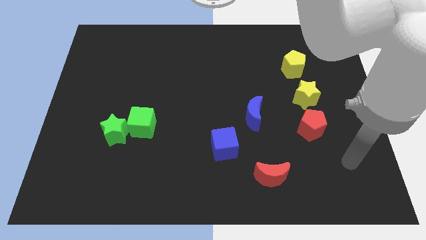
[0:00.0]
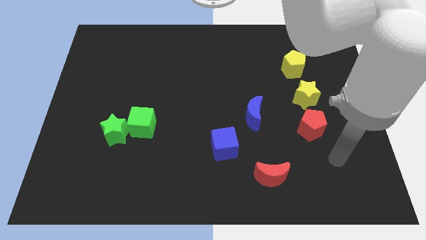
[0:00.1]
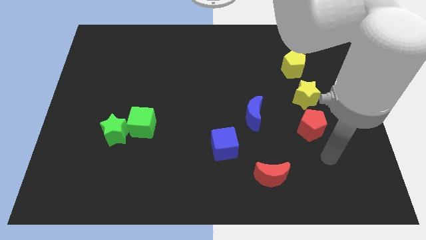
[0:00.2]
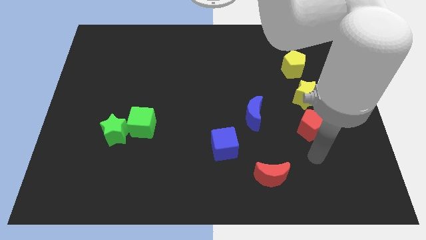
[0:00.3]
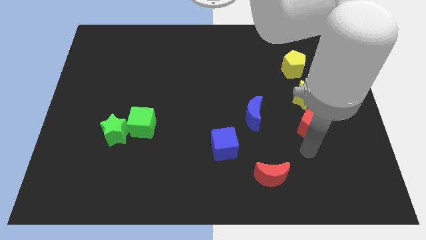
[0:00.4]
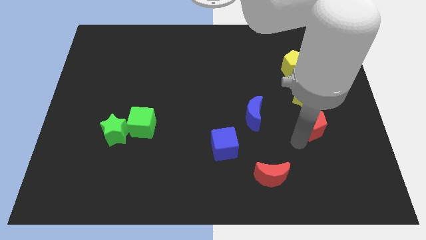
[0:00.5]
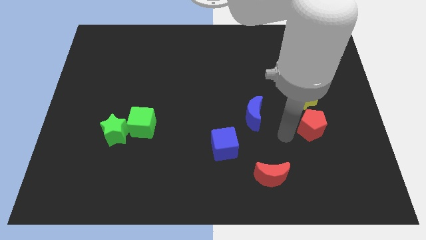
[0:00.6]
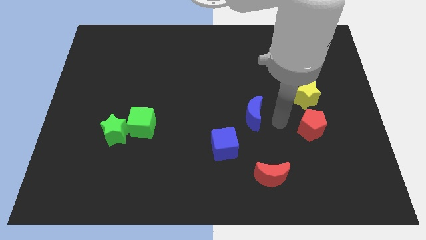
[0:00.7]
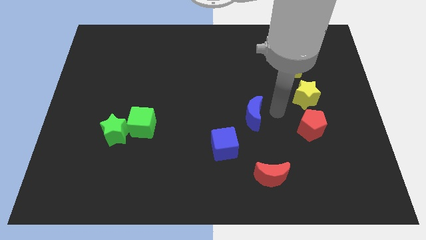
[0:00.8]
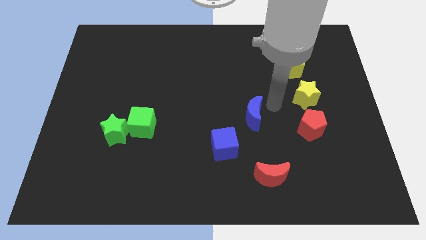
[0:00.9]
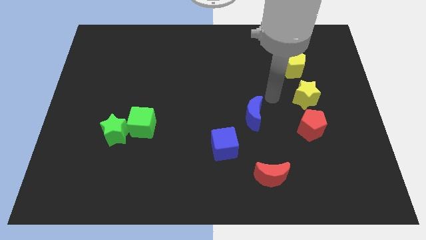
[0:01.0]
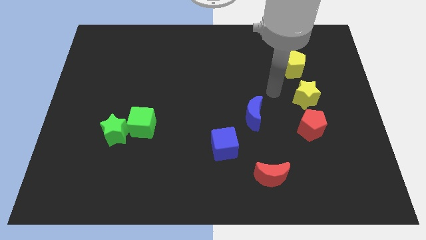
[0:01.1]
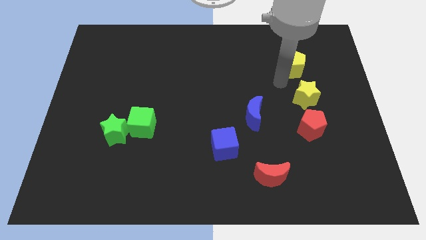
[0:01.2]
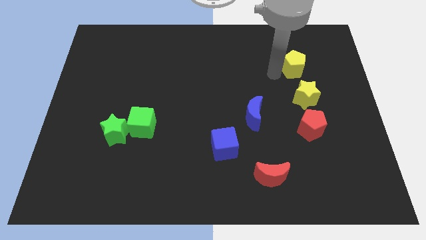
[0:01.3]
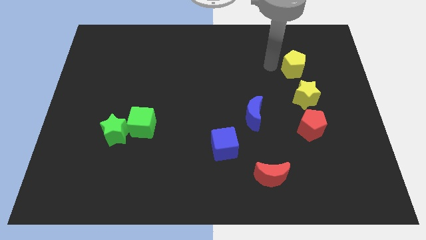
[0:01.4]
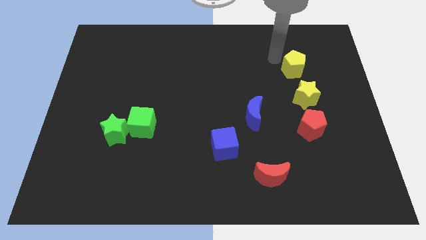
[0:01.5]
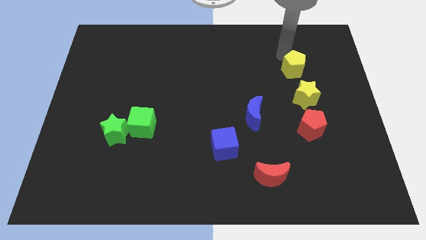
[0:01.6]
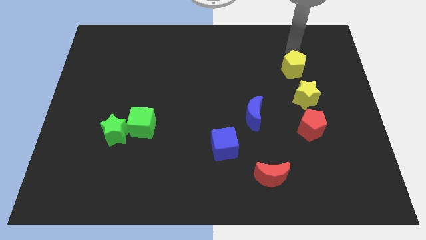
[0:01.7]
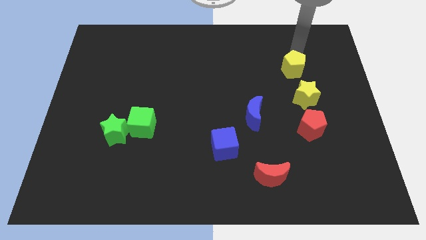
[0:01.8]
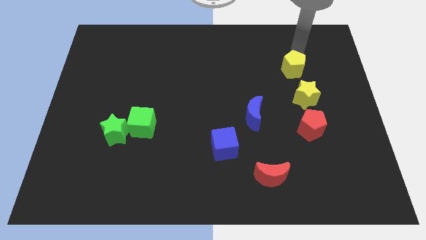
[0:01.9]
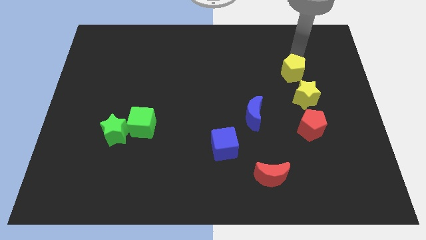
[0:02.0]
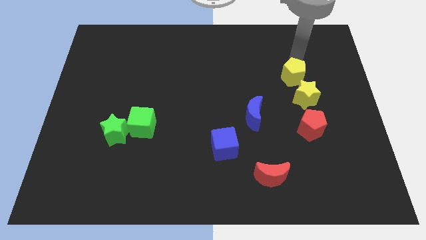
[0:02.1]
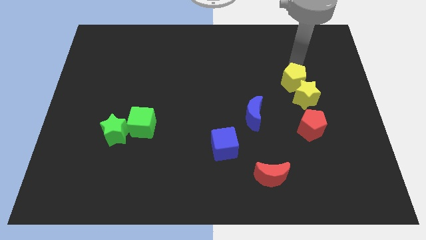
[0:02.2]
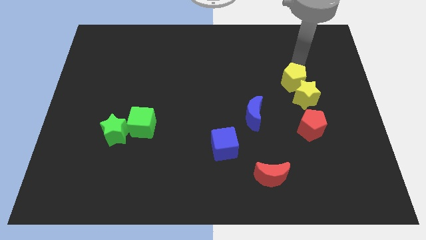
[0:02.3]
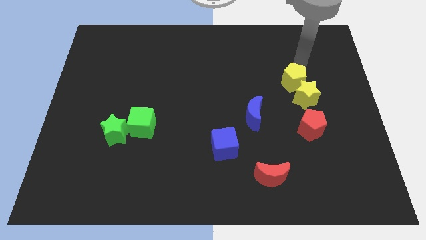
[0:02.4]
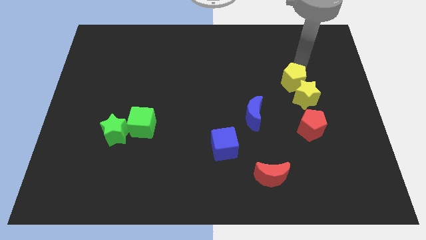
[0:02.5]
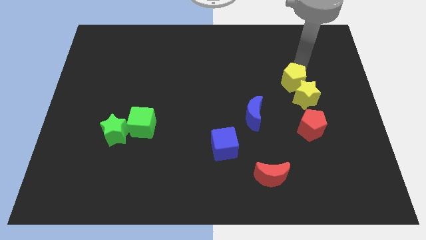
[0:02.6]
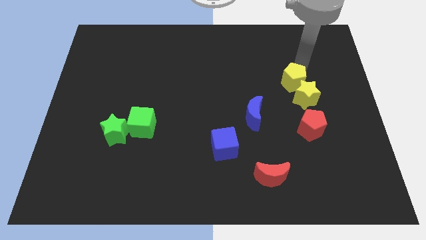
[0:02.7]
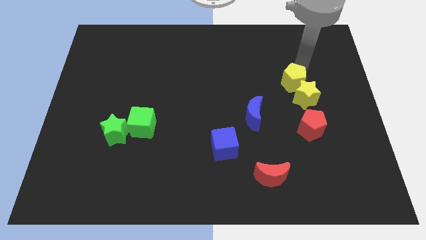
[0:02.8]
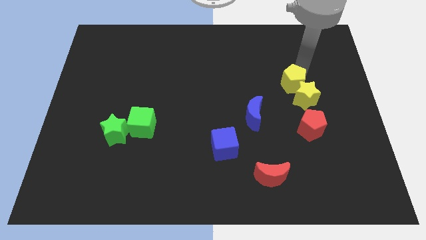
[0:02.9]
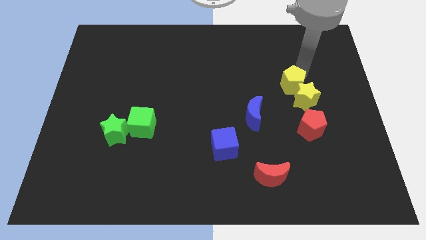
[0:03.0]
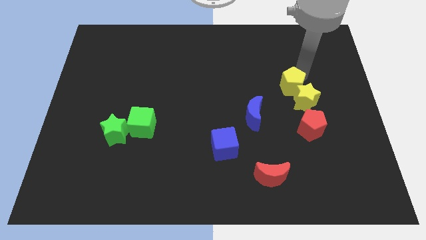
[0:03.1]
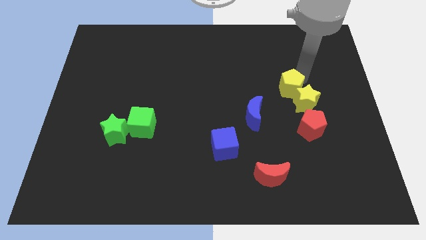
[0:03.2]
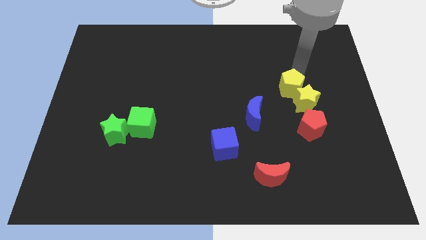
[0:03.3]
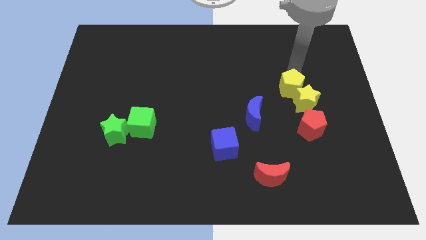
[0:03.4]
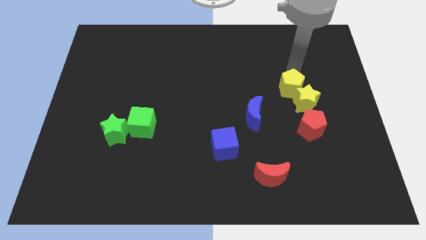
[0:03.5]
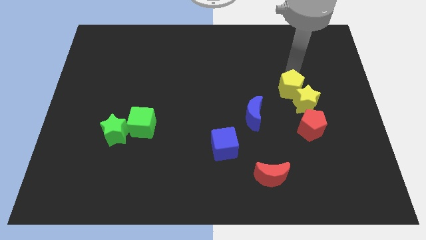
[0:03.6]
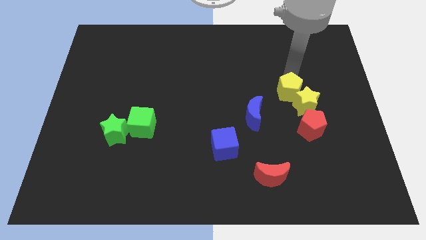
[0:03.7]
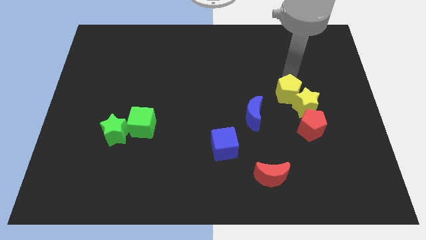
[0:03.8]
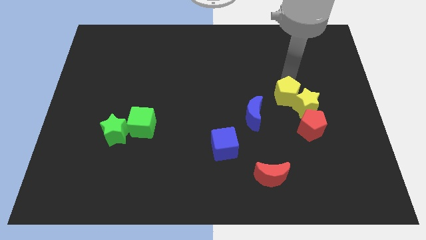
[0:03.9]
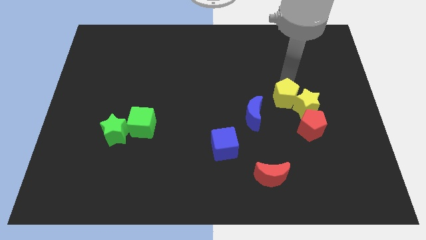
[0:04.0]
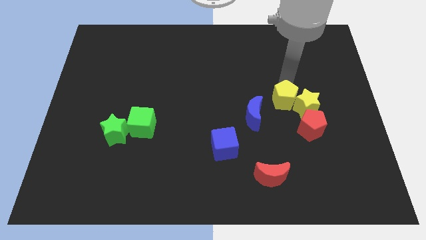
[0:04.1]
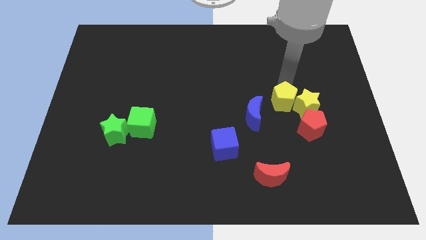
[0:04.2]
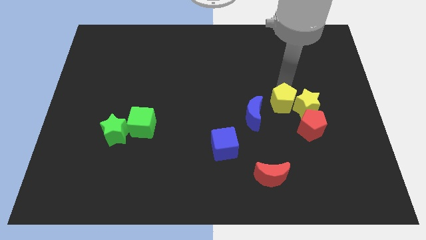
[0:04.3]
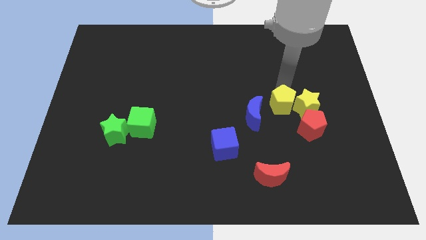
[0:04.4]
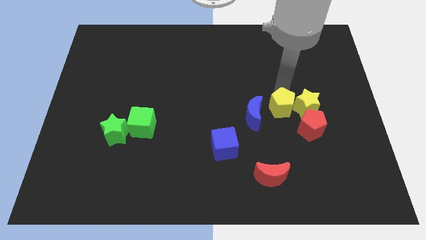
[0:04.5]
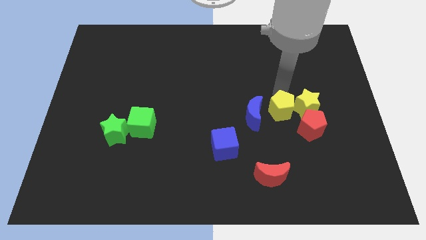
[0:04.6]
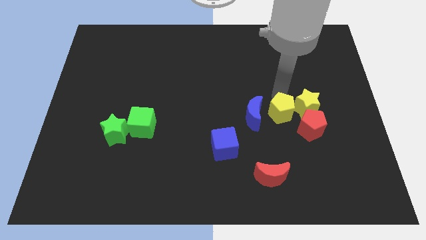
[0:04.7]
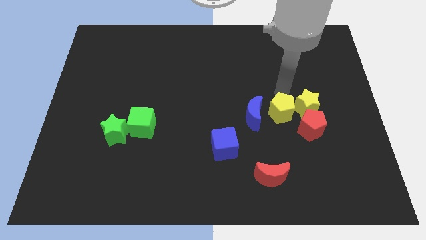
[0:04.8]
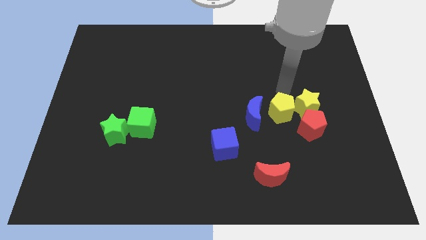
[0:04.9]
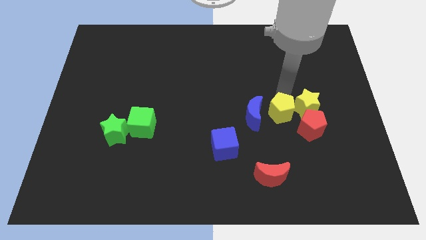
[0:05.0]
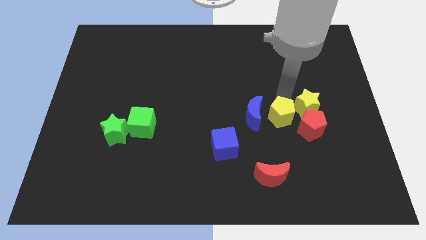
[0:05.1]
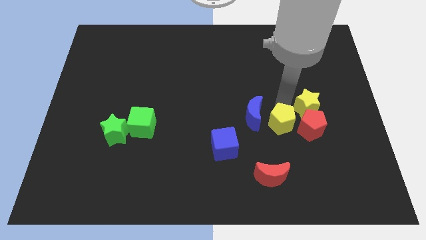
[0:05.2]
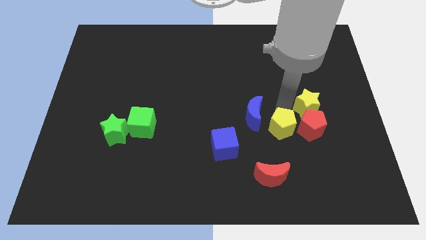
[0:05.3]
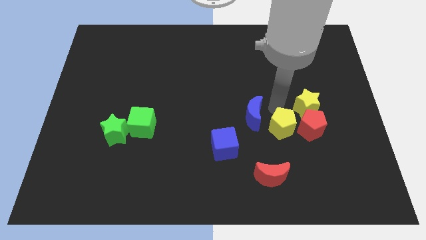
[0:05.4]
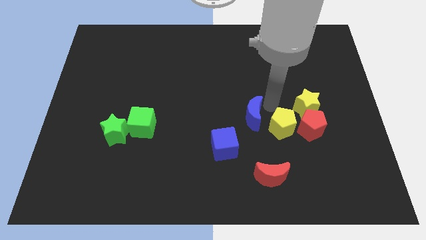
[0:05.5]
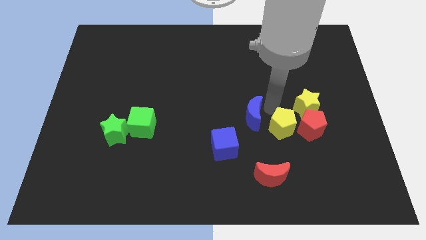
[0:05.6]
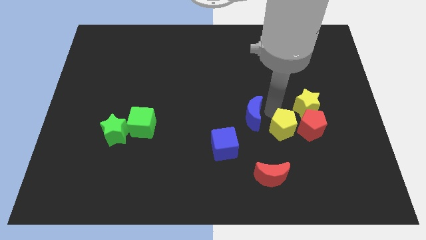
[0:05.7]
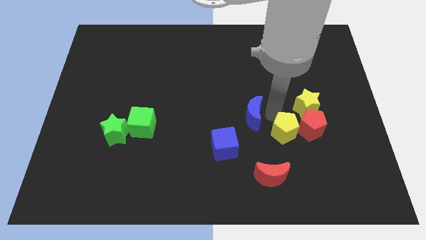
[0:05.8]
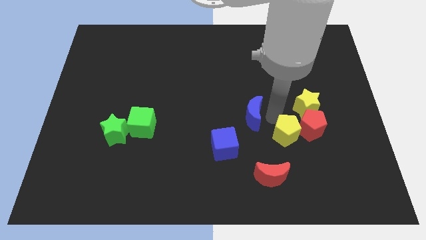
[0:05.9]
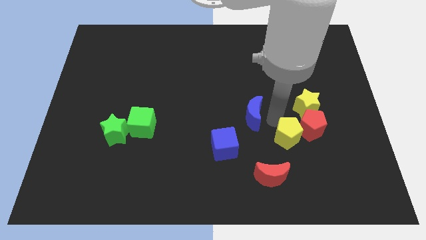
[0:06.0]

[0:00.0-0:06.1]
slide the yellow pentagon down

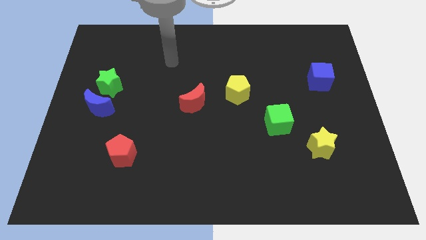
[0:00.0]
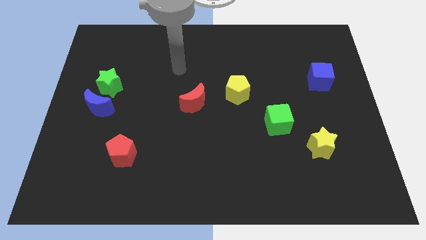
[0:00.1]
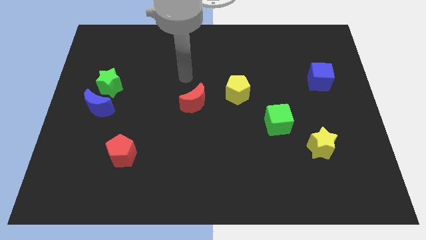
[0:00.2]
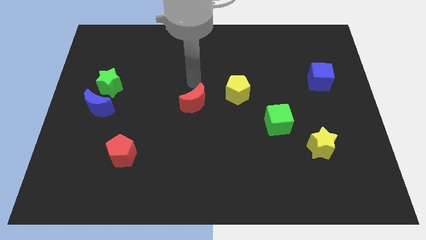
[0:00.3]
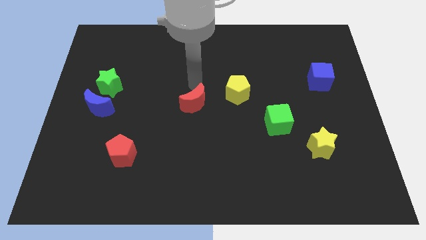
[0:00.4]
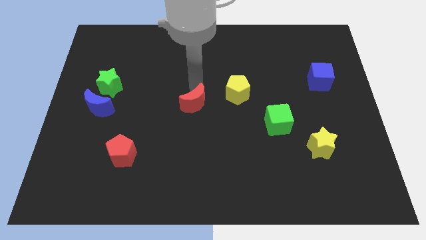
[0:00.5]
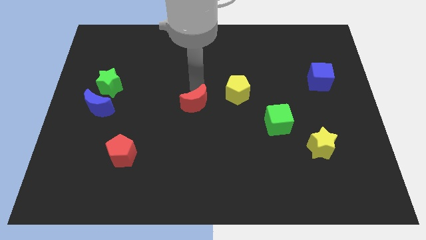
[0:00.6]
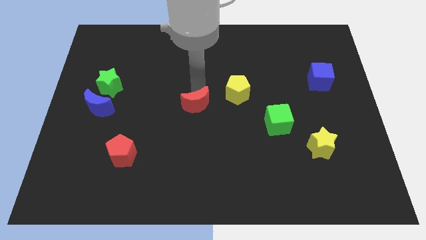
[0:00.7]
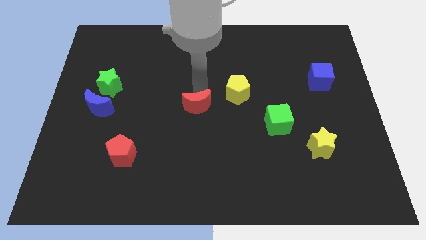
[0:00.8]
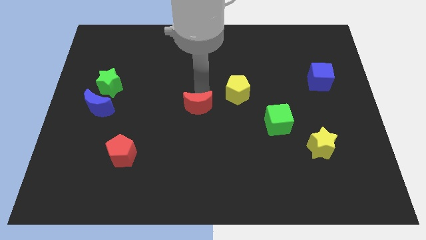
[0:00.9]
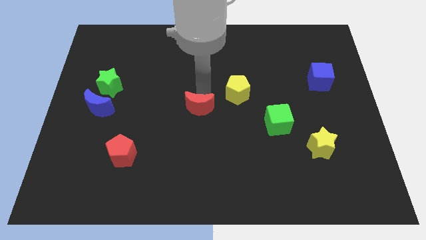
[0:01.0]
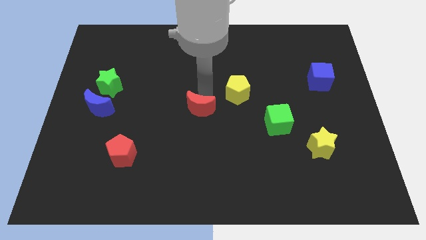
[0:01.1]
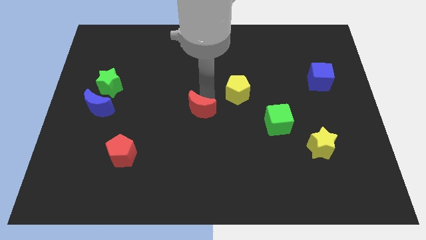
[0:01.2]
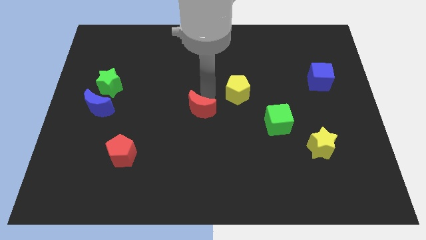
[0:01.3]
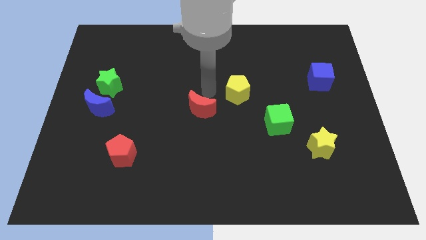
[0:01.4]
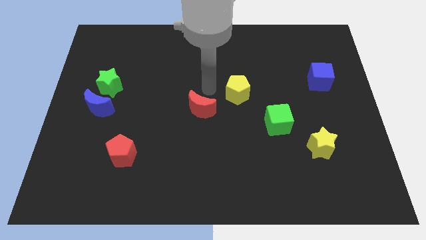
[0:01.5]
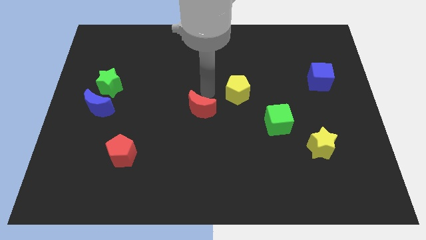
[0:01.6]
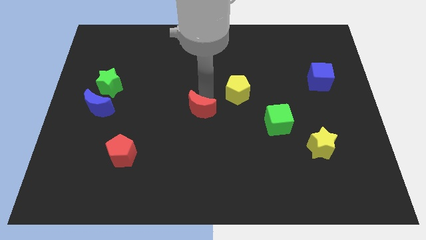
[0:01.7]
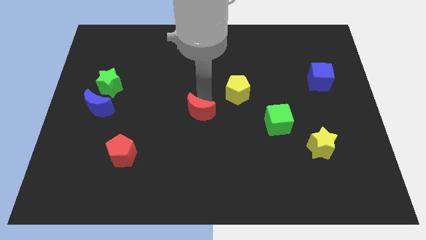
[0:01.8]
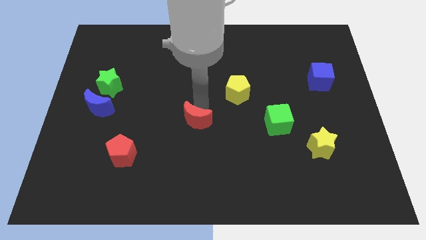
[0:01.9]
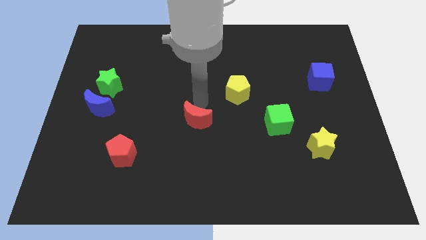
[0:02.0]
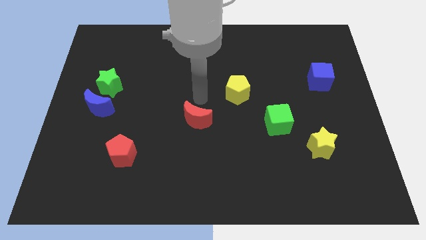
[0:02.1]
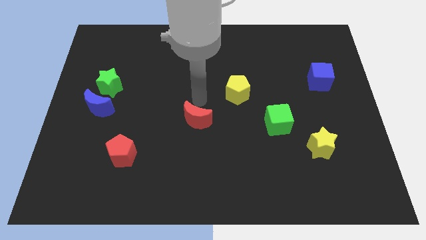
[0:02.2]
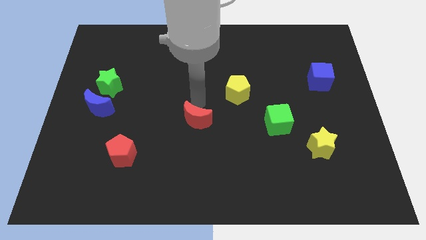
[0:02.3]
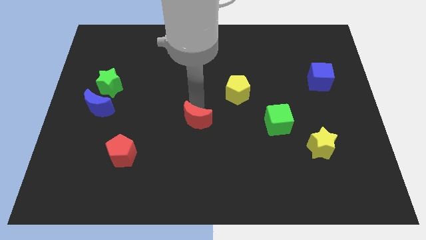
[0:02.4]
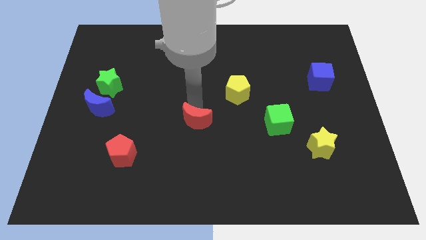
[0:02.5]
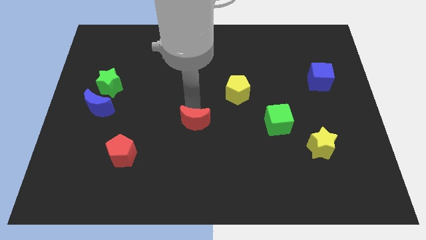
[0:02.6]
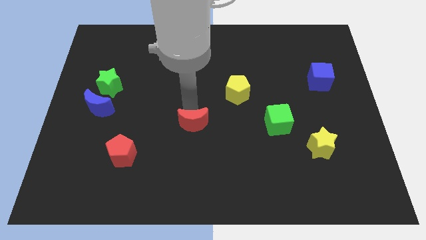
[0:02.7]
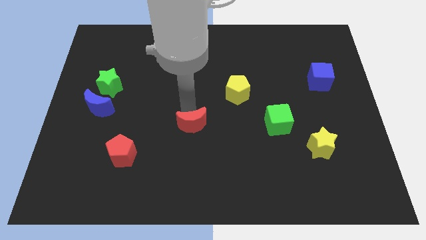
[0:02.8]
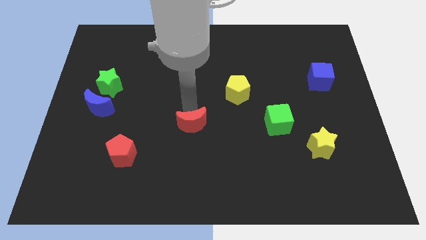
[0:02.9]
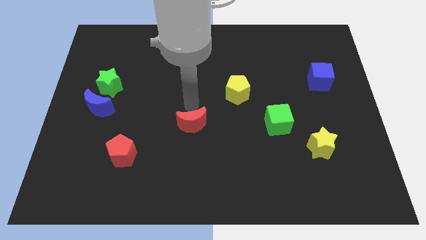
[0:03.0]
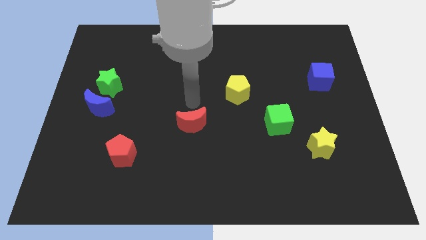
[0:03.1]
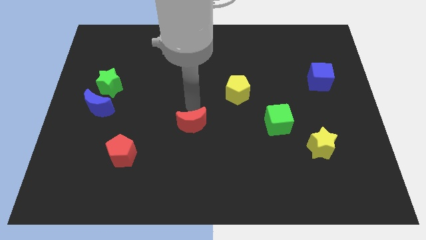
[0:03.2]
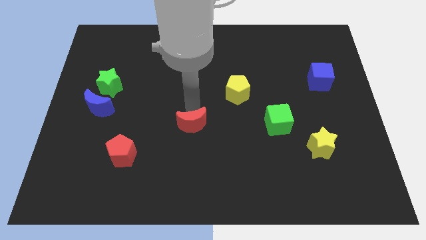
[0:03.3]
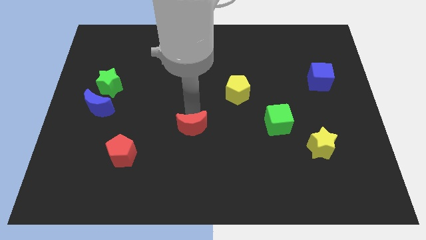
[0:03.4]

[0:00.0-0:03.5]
slide the red moon somewhat downwards
